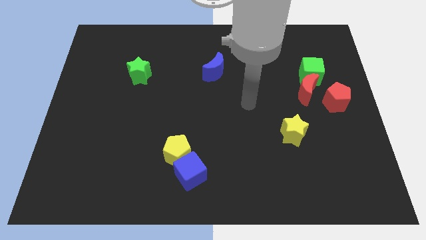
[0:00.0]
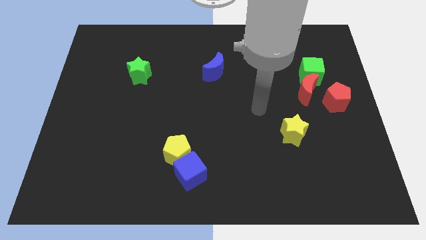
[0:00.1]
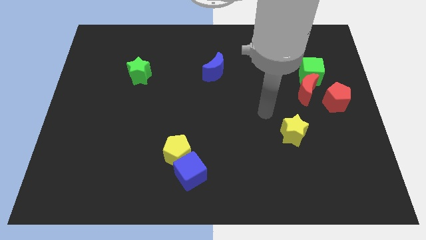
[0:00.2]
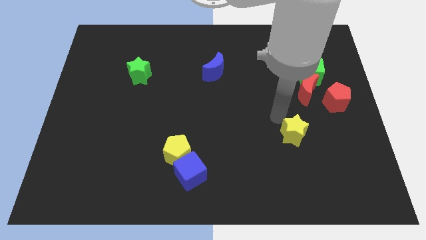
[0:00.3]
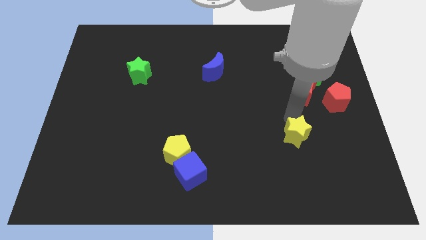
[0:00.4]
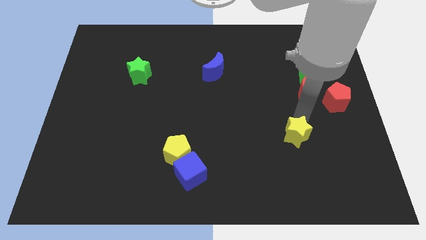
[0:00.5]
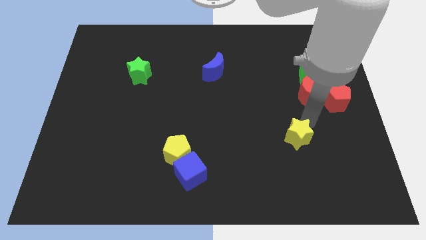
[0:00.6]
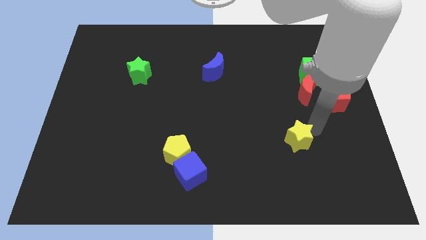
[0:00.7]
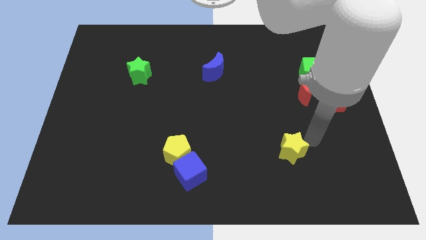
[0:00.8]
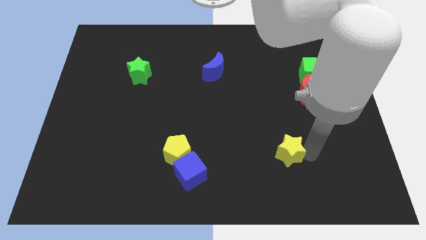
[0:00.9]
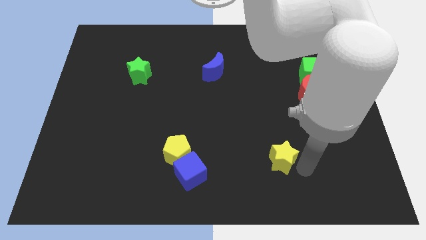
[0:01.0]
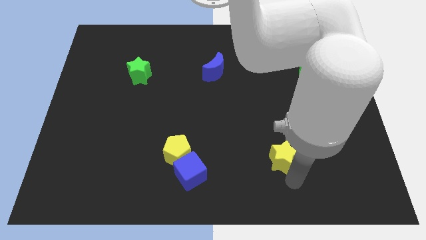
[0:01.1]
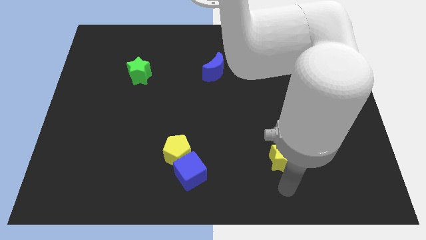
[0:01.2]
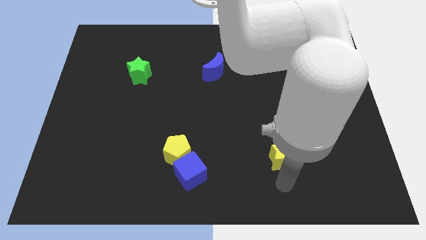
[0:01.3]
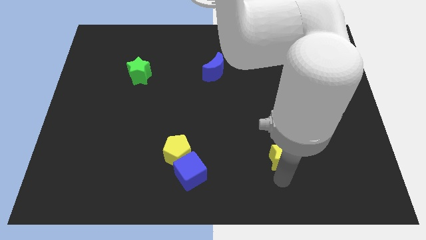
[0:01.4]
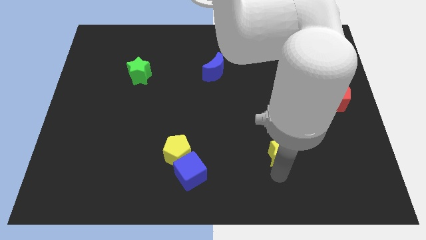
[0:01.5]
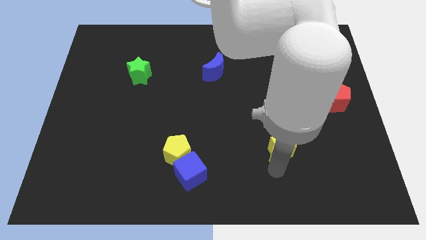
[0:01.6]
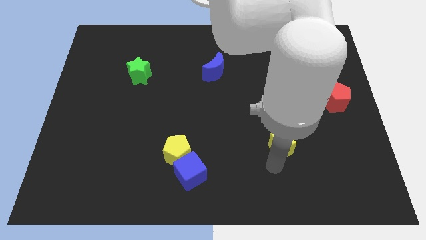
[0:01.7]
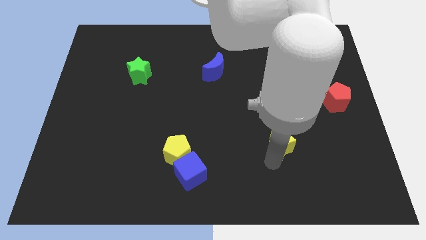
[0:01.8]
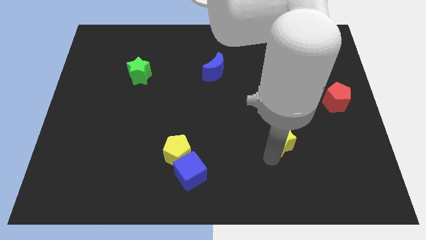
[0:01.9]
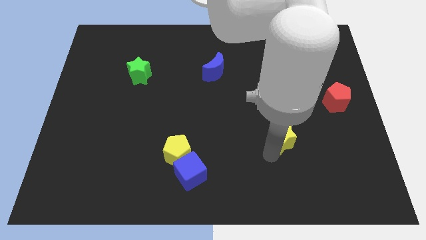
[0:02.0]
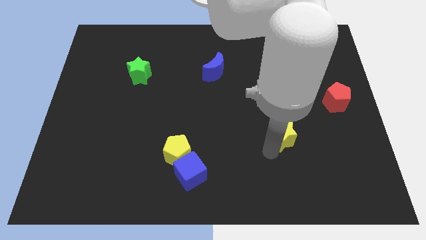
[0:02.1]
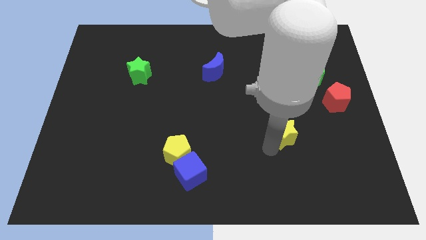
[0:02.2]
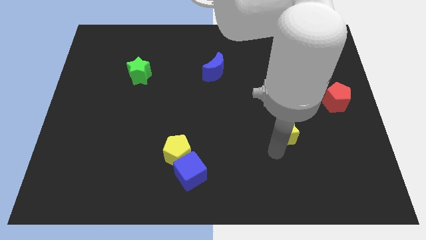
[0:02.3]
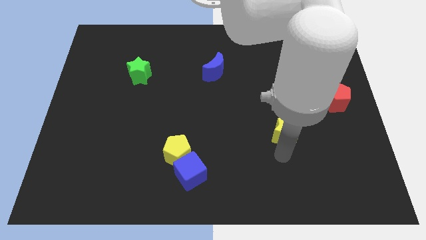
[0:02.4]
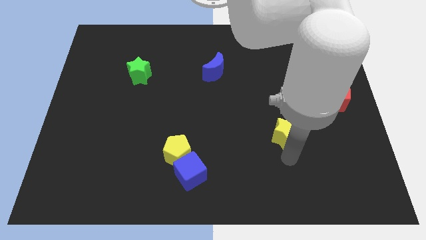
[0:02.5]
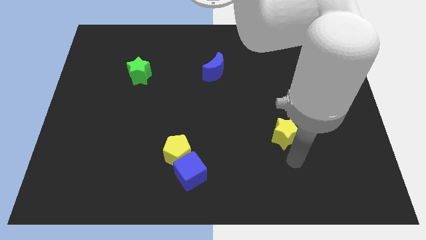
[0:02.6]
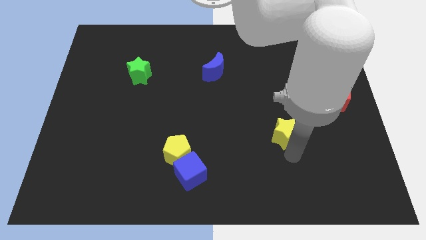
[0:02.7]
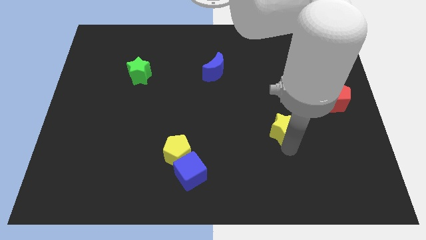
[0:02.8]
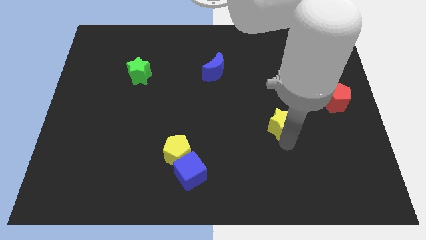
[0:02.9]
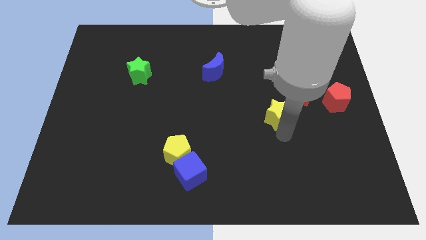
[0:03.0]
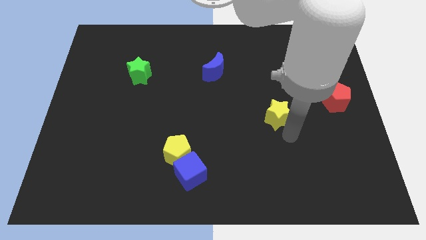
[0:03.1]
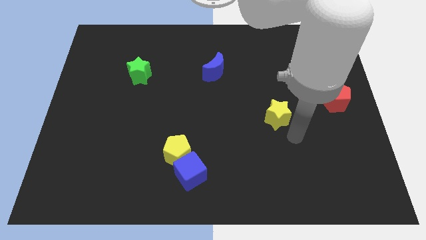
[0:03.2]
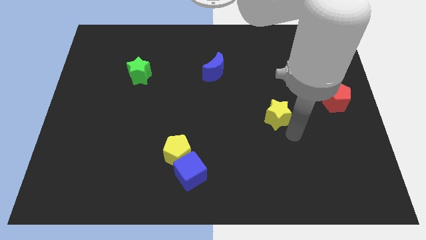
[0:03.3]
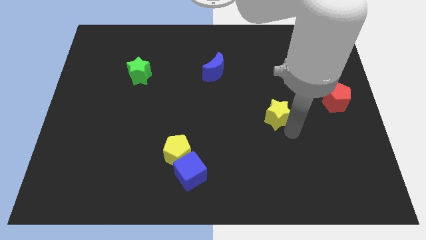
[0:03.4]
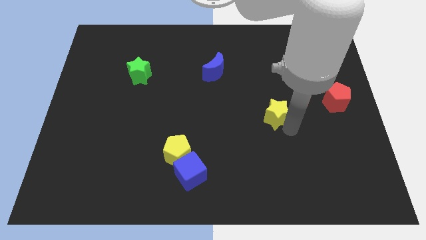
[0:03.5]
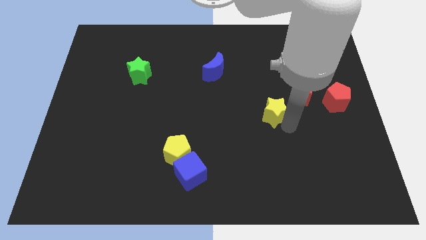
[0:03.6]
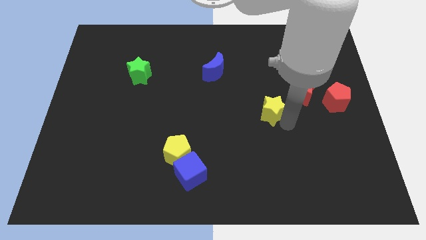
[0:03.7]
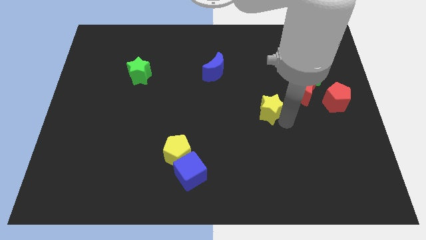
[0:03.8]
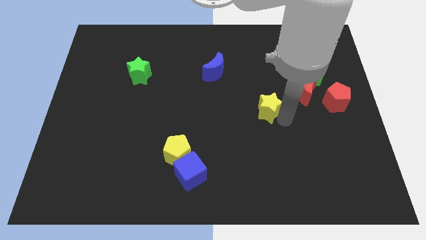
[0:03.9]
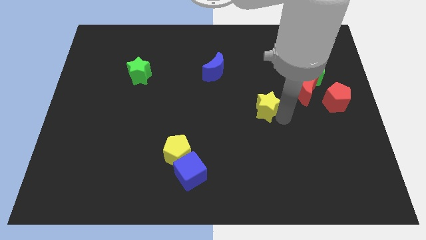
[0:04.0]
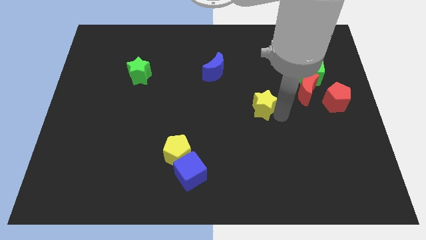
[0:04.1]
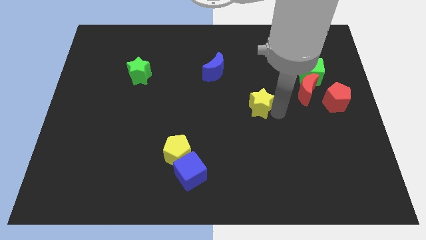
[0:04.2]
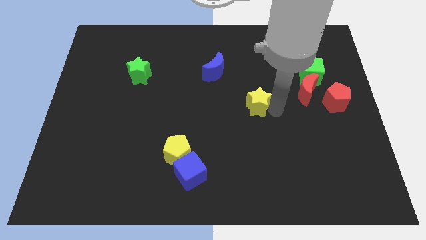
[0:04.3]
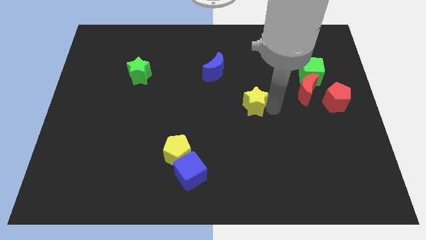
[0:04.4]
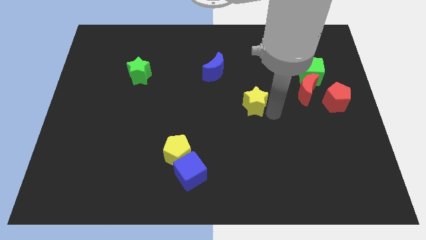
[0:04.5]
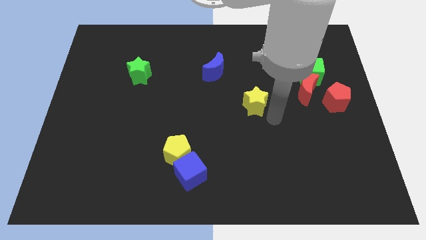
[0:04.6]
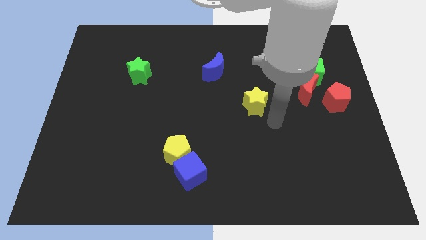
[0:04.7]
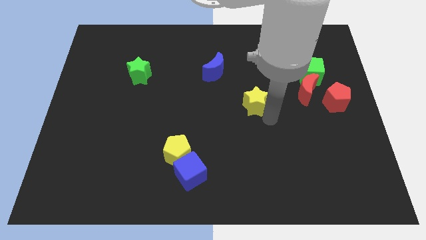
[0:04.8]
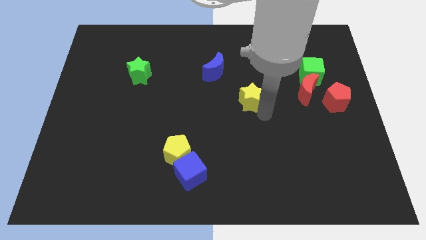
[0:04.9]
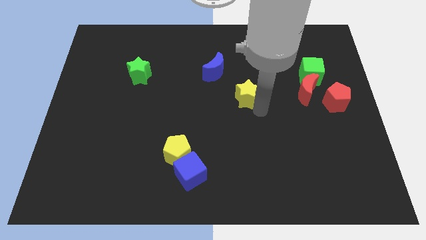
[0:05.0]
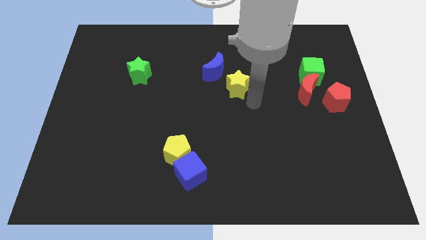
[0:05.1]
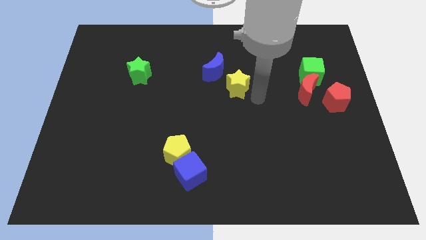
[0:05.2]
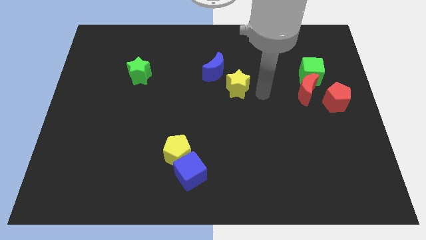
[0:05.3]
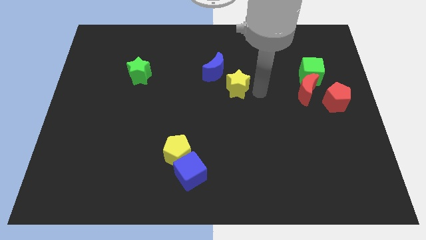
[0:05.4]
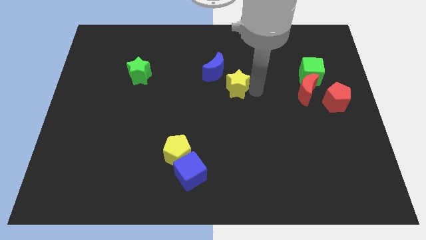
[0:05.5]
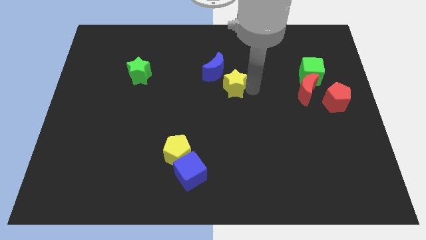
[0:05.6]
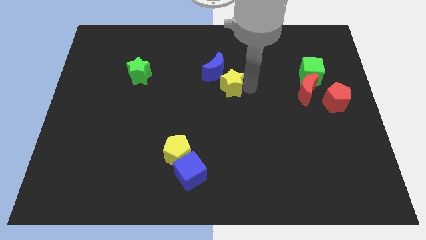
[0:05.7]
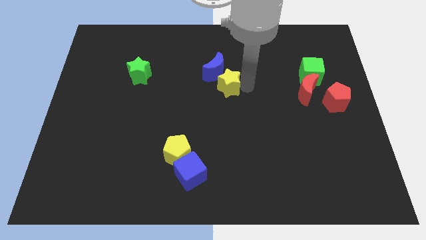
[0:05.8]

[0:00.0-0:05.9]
slide the yellow star upwards and to the left diagonally

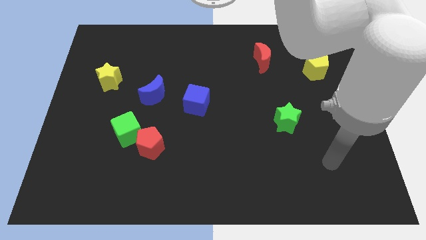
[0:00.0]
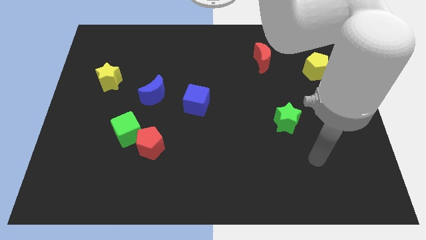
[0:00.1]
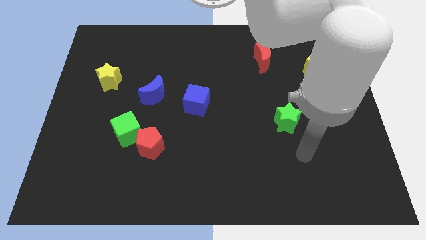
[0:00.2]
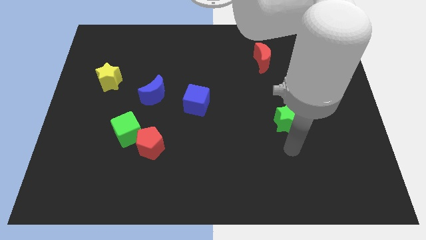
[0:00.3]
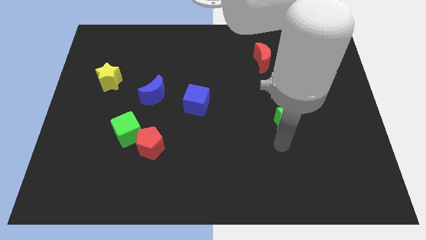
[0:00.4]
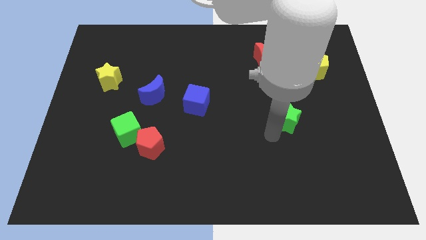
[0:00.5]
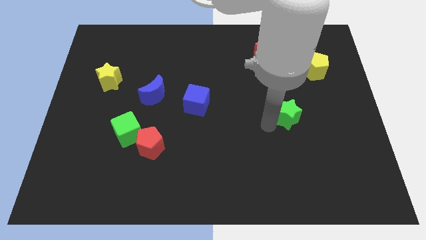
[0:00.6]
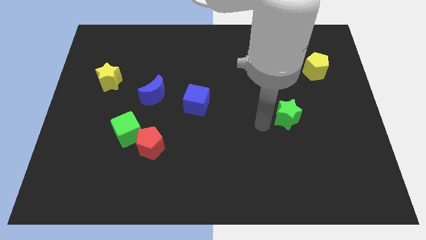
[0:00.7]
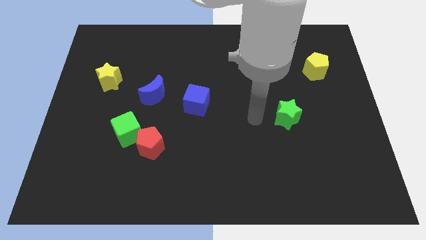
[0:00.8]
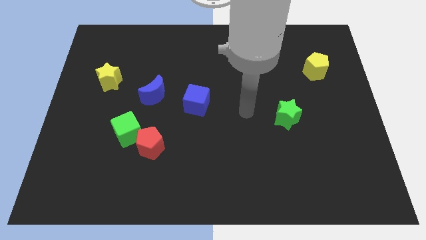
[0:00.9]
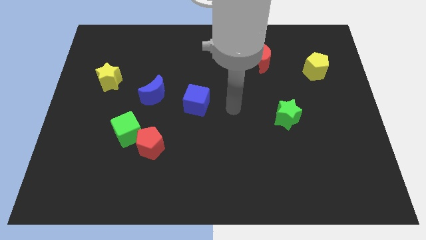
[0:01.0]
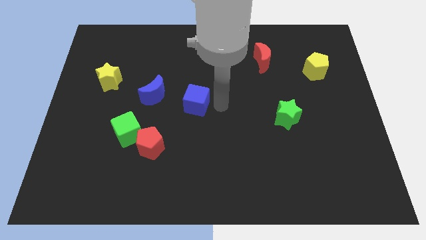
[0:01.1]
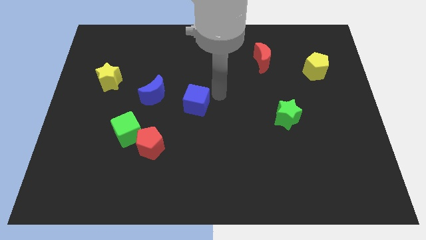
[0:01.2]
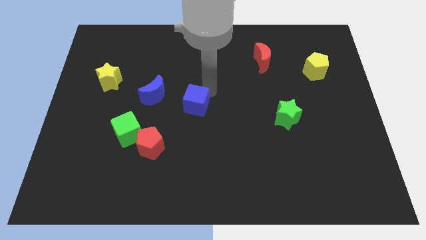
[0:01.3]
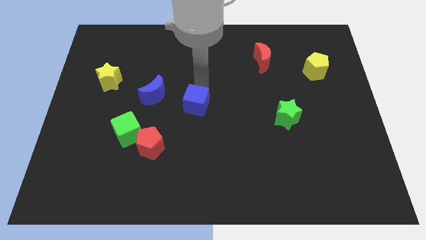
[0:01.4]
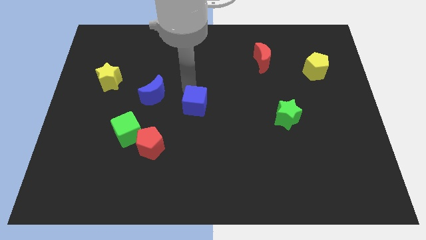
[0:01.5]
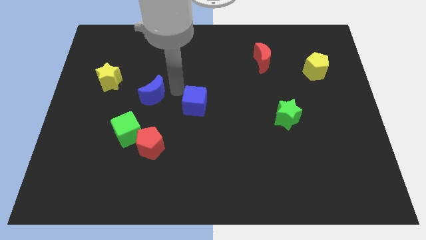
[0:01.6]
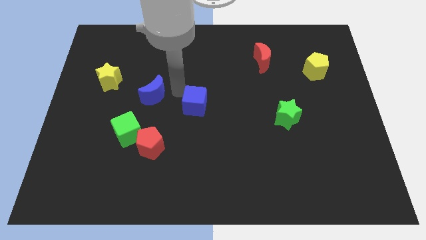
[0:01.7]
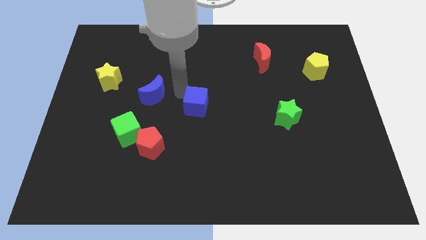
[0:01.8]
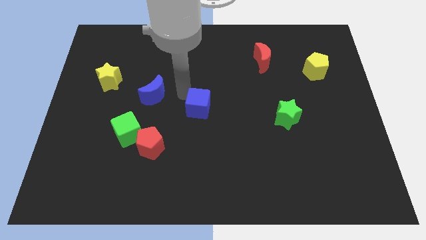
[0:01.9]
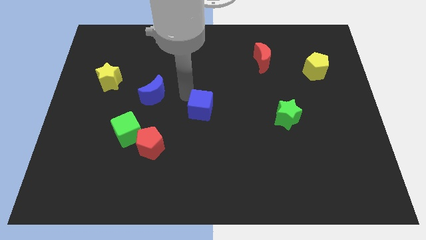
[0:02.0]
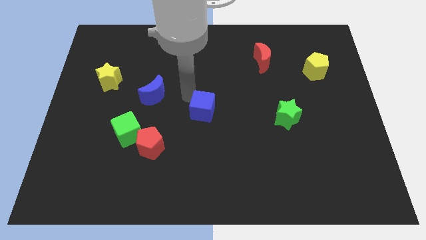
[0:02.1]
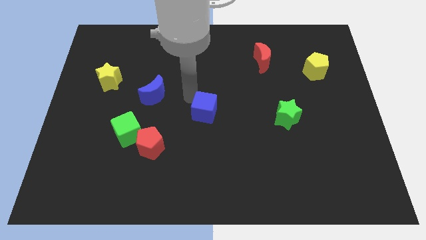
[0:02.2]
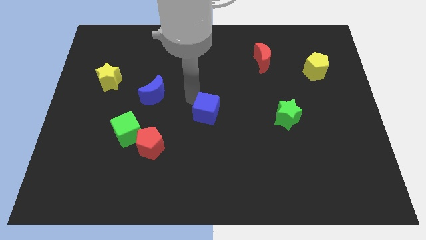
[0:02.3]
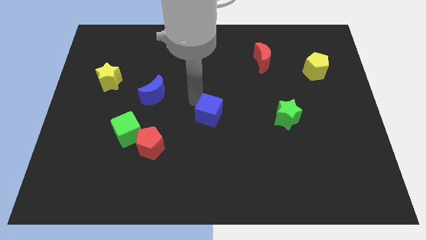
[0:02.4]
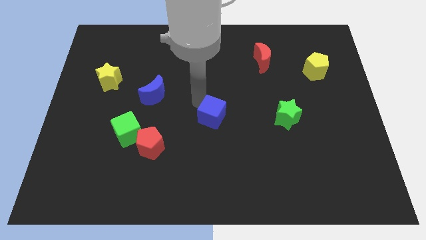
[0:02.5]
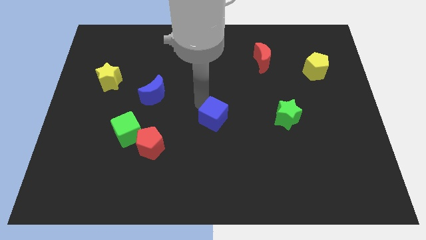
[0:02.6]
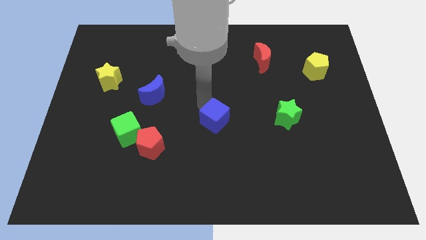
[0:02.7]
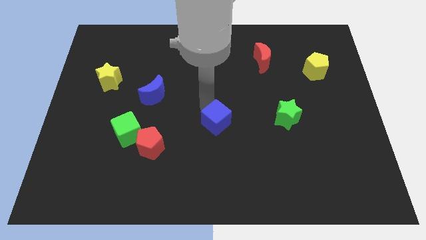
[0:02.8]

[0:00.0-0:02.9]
slightly push the blue cube down and right
